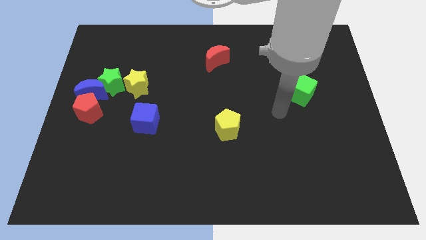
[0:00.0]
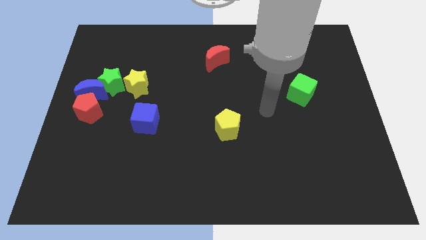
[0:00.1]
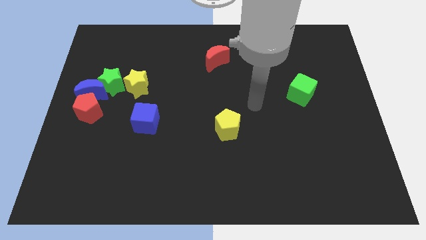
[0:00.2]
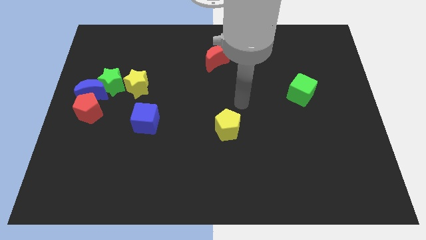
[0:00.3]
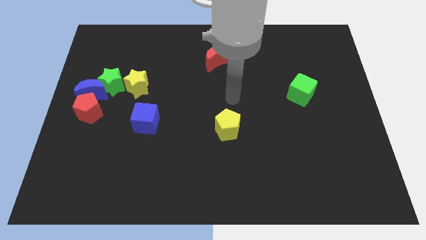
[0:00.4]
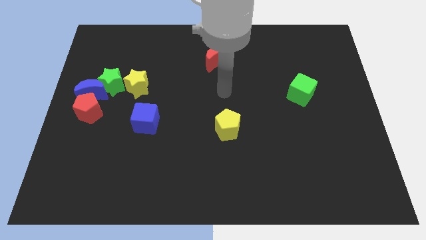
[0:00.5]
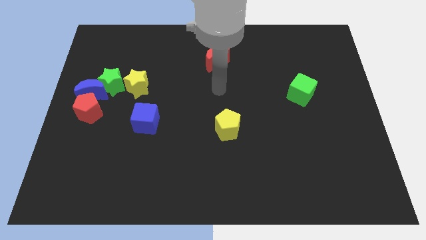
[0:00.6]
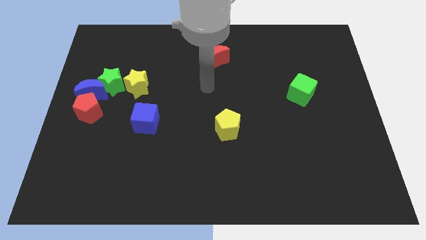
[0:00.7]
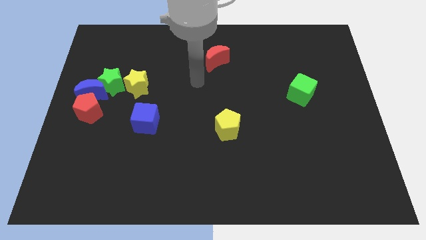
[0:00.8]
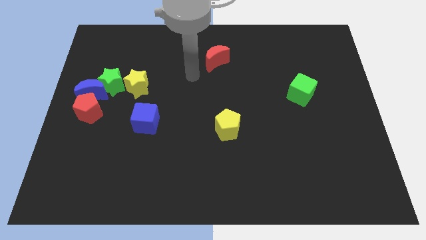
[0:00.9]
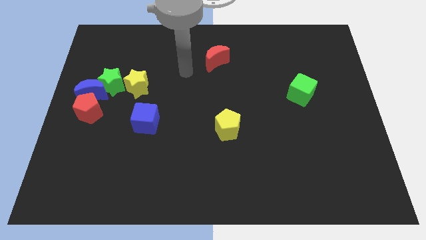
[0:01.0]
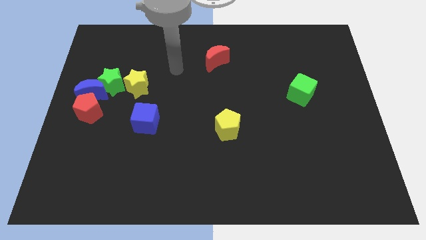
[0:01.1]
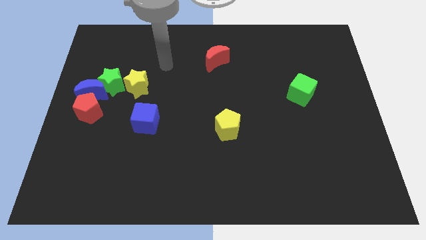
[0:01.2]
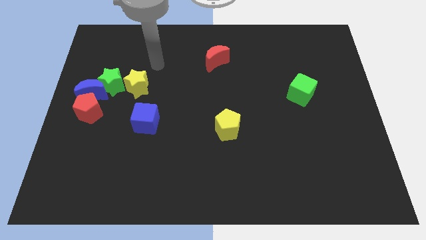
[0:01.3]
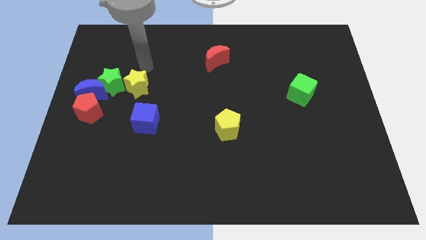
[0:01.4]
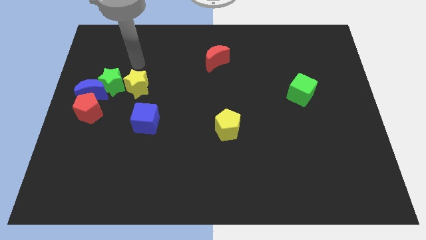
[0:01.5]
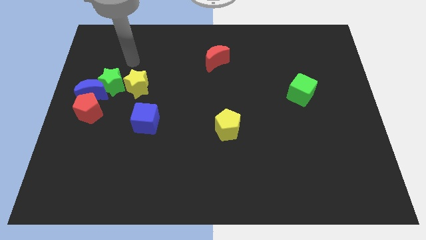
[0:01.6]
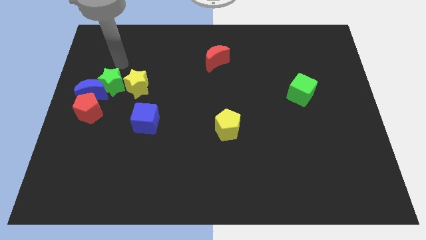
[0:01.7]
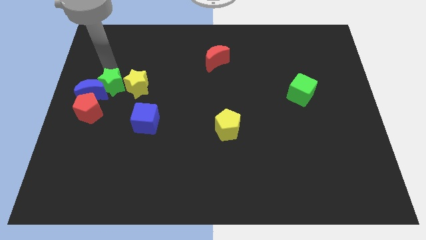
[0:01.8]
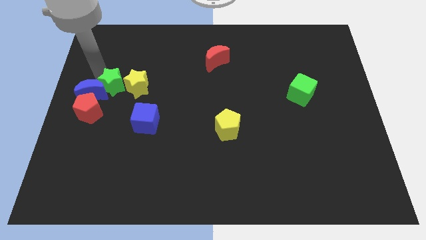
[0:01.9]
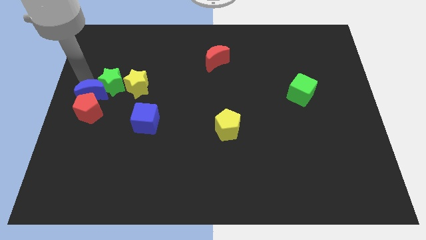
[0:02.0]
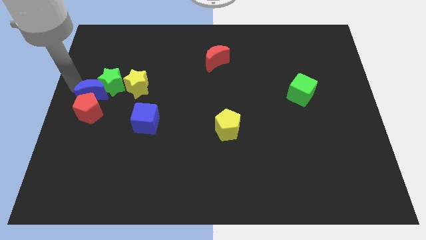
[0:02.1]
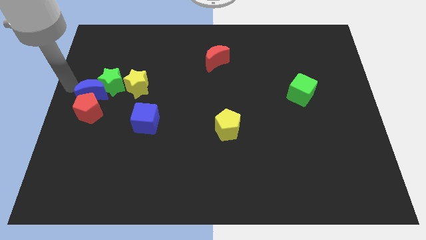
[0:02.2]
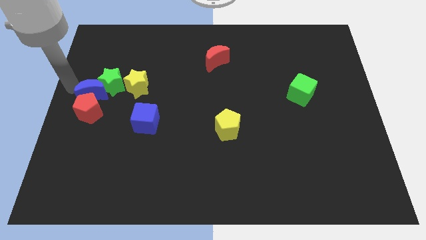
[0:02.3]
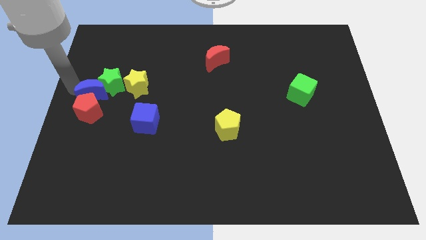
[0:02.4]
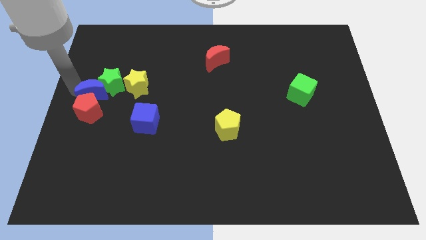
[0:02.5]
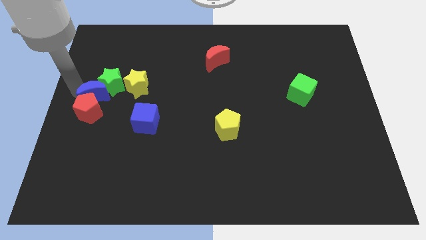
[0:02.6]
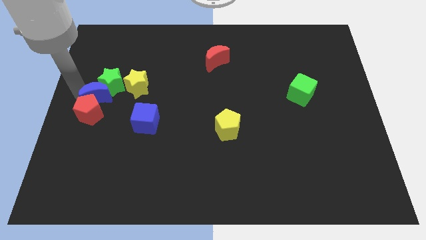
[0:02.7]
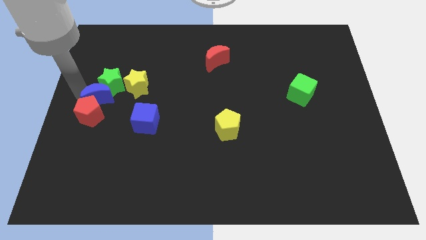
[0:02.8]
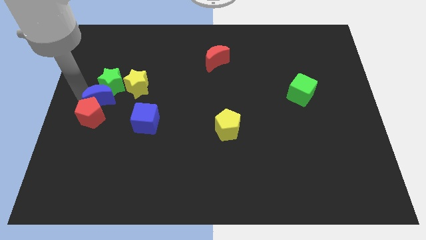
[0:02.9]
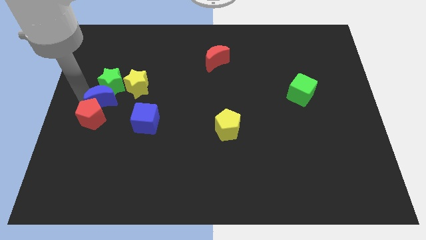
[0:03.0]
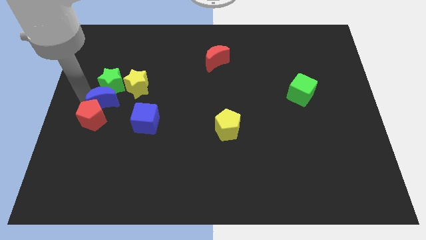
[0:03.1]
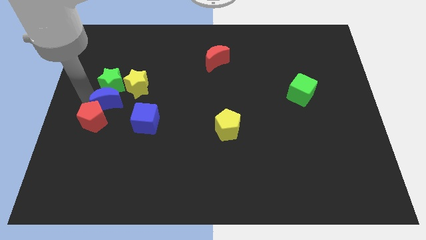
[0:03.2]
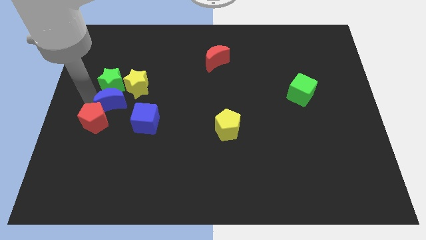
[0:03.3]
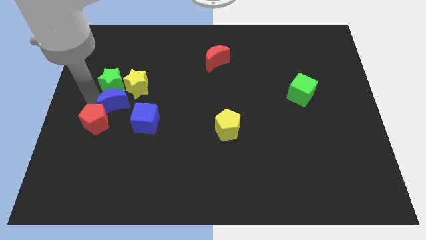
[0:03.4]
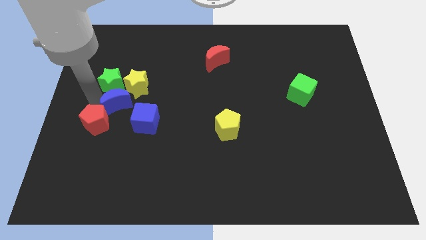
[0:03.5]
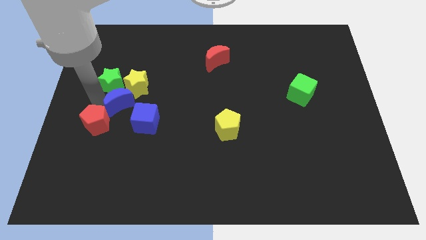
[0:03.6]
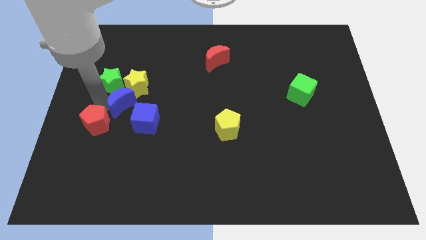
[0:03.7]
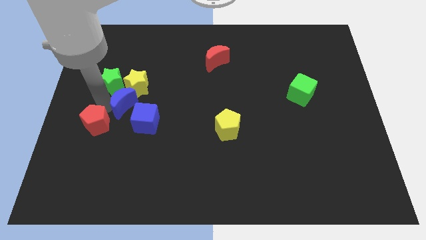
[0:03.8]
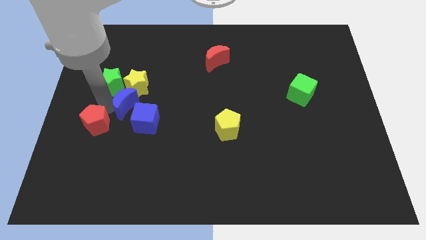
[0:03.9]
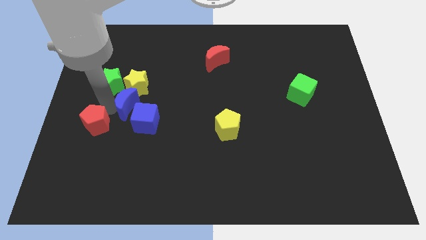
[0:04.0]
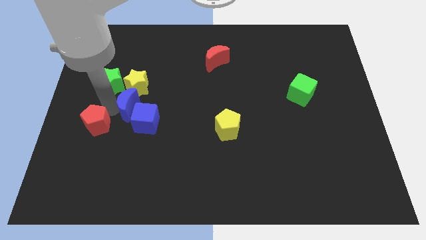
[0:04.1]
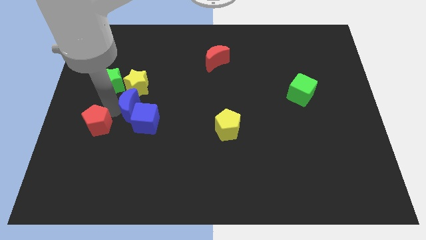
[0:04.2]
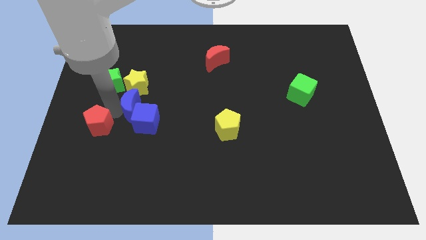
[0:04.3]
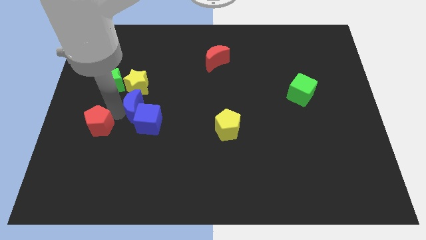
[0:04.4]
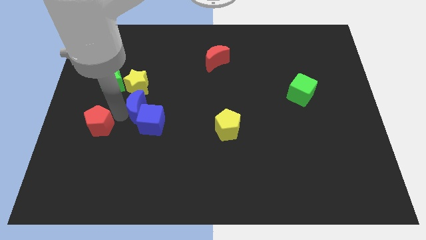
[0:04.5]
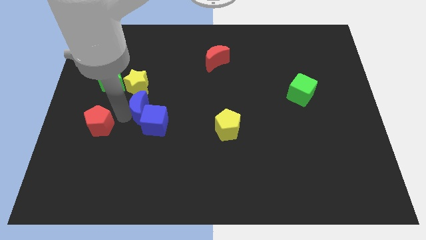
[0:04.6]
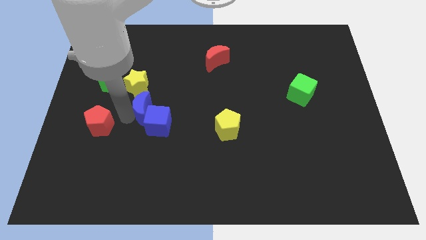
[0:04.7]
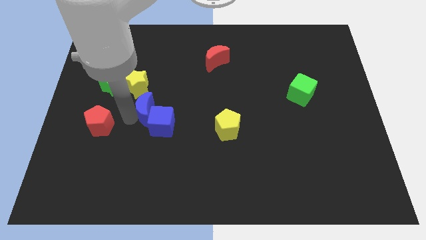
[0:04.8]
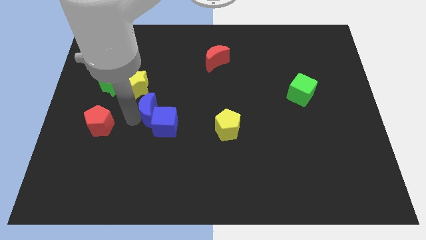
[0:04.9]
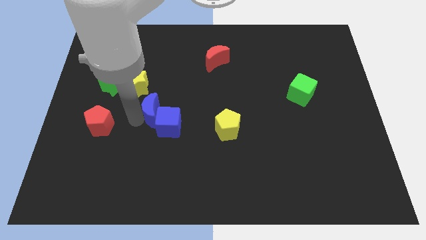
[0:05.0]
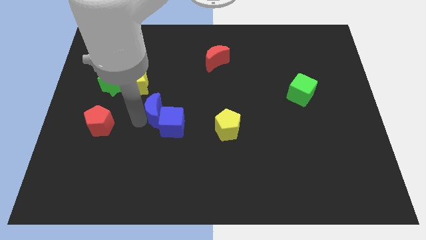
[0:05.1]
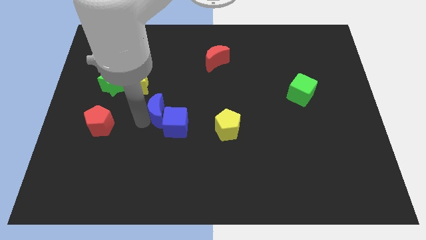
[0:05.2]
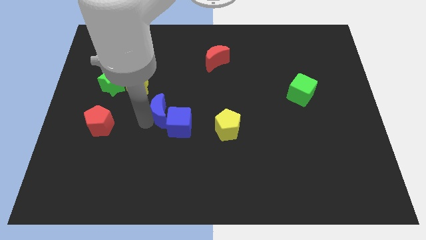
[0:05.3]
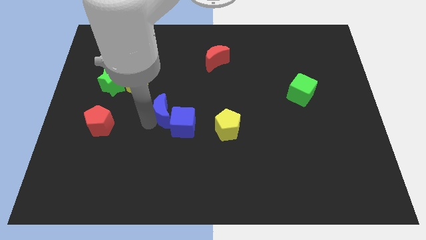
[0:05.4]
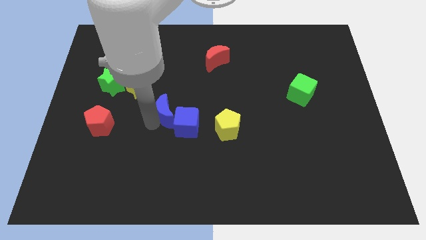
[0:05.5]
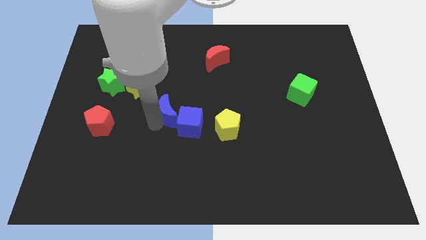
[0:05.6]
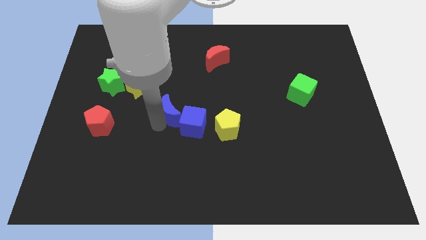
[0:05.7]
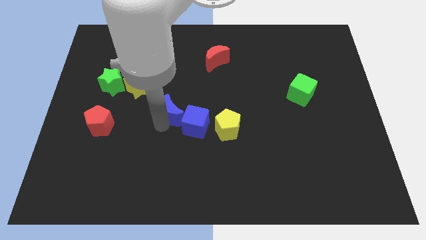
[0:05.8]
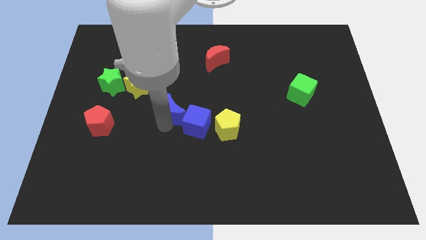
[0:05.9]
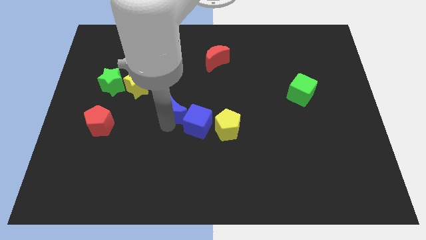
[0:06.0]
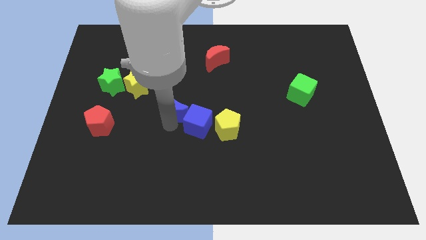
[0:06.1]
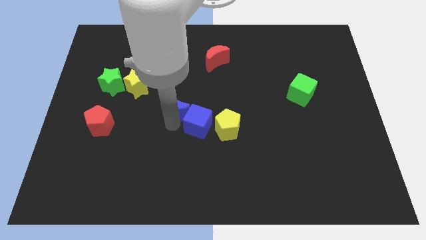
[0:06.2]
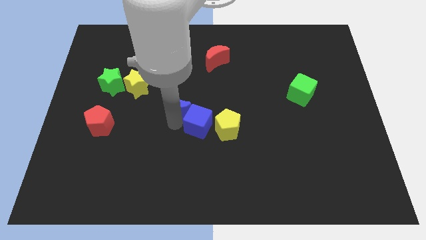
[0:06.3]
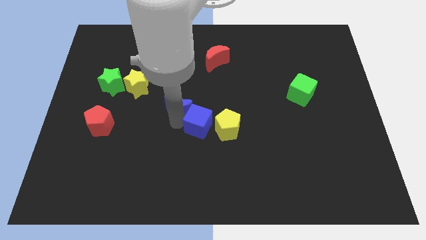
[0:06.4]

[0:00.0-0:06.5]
move the blue moon to the right

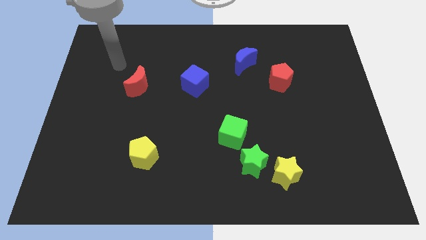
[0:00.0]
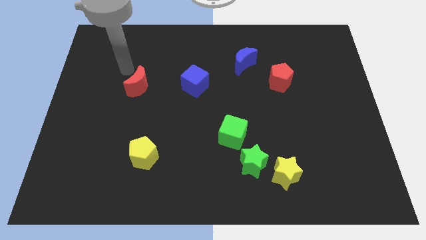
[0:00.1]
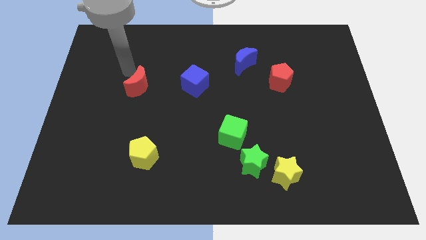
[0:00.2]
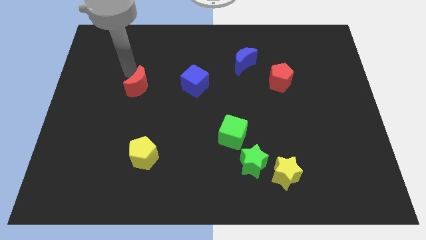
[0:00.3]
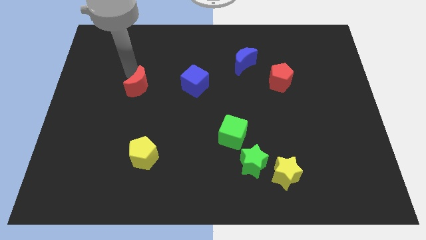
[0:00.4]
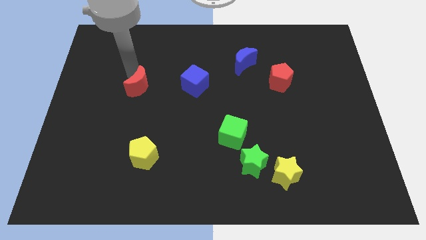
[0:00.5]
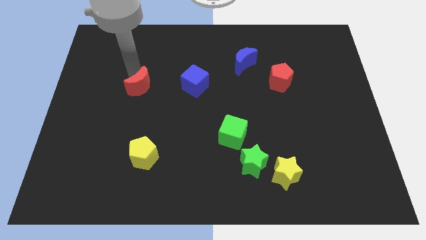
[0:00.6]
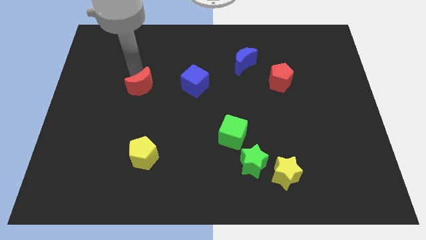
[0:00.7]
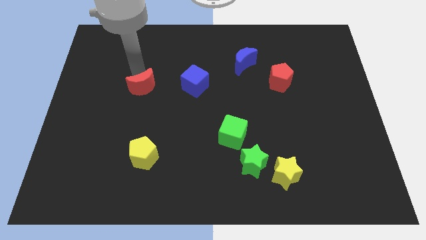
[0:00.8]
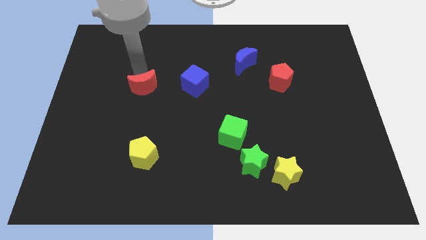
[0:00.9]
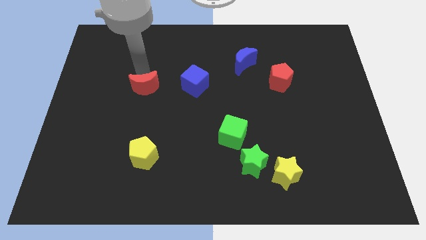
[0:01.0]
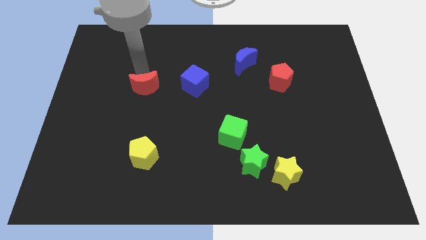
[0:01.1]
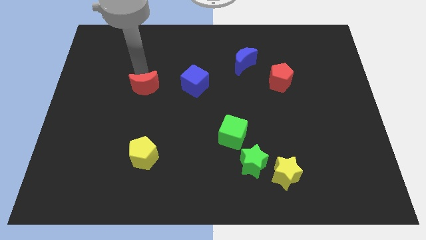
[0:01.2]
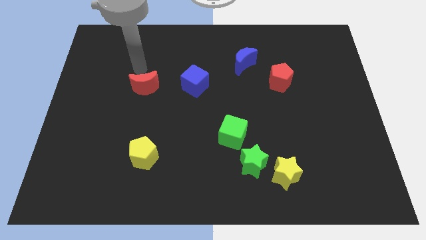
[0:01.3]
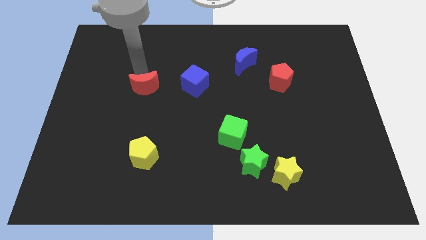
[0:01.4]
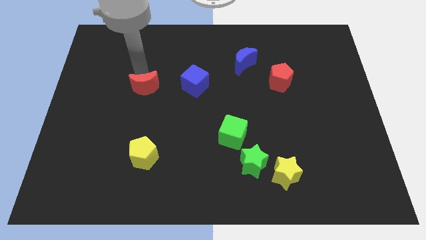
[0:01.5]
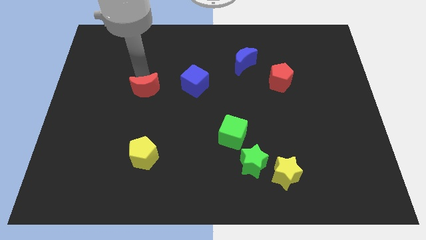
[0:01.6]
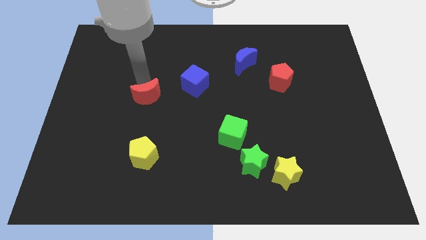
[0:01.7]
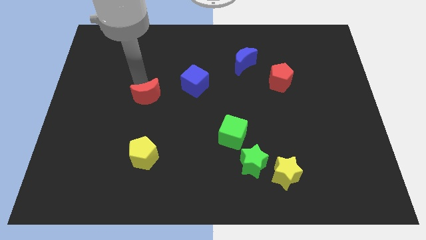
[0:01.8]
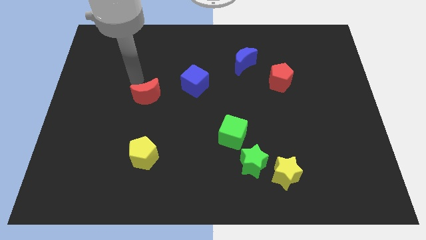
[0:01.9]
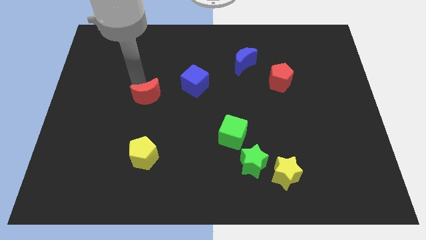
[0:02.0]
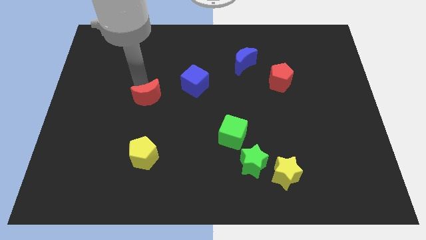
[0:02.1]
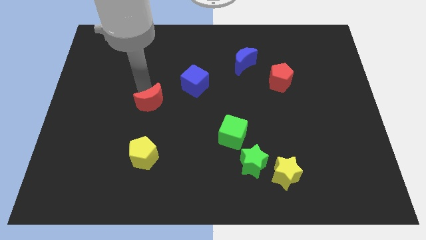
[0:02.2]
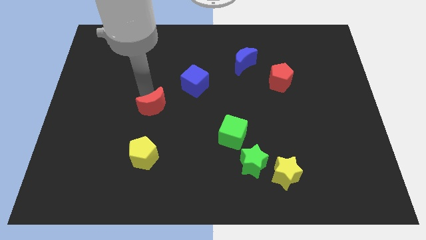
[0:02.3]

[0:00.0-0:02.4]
slightly slide the red moon downwards and to the right
